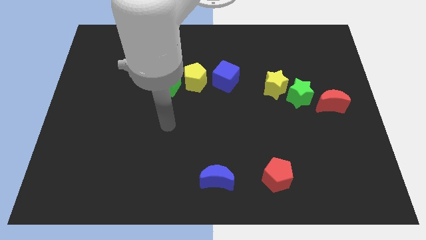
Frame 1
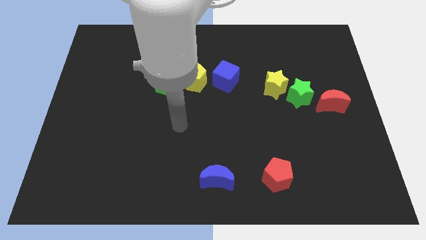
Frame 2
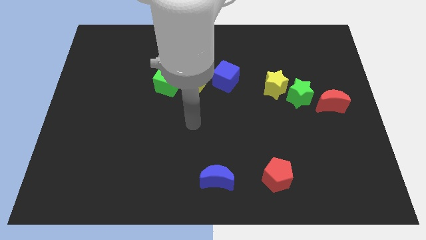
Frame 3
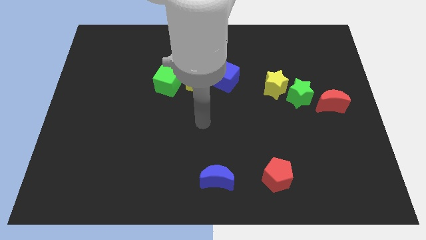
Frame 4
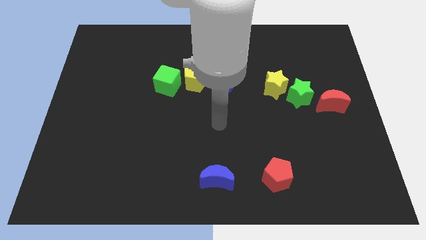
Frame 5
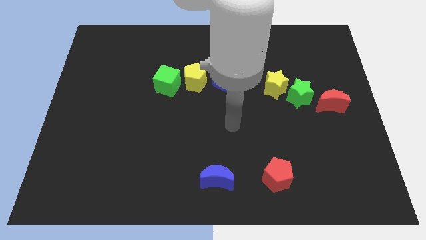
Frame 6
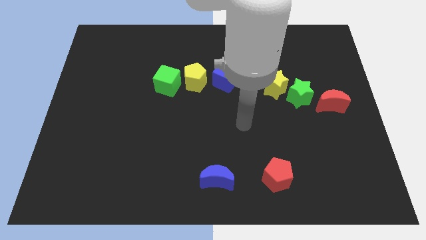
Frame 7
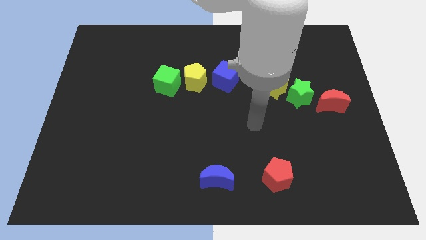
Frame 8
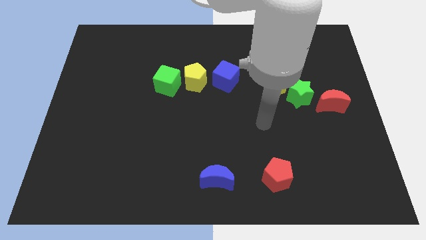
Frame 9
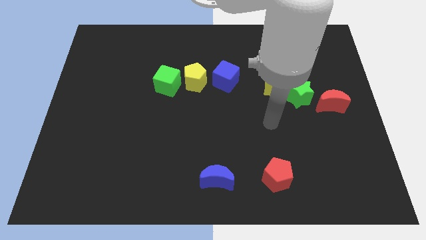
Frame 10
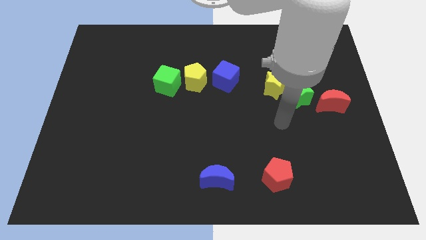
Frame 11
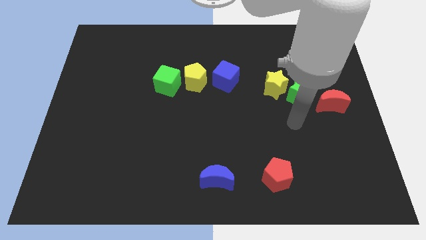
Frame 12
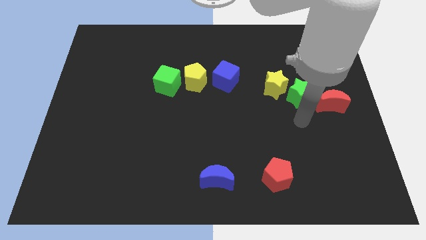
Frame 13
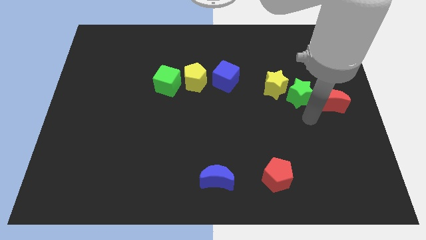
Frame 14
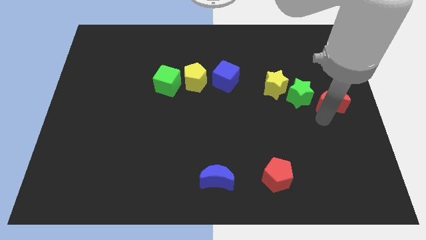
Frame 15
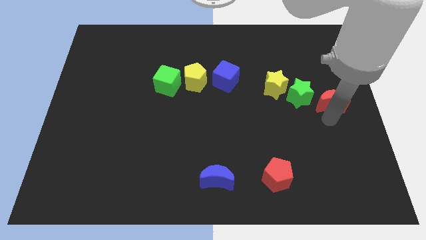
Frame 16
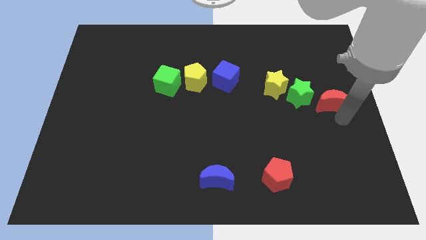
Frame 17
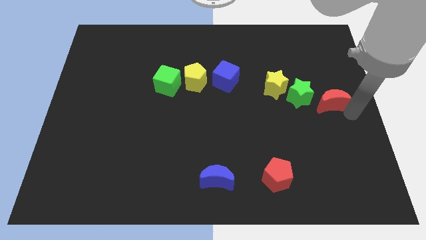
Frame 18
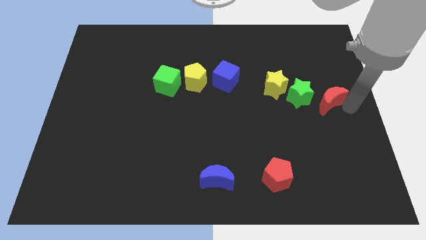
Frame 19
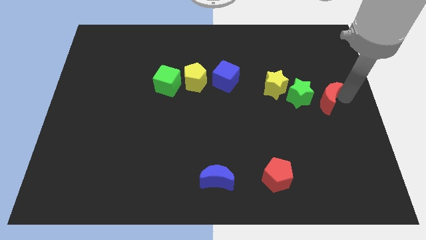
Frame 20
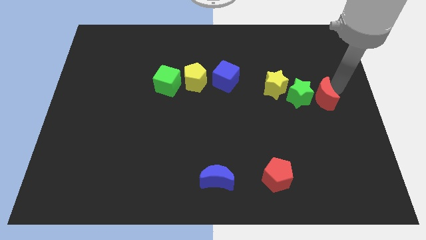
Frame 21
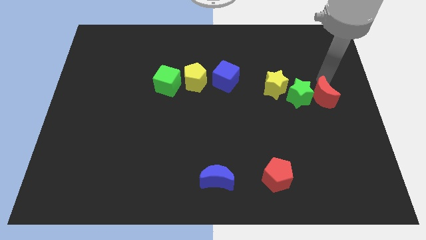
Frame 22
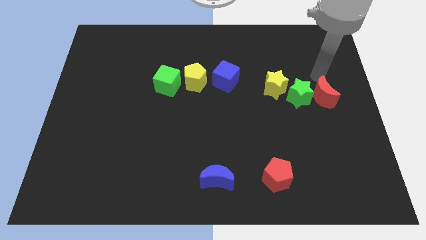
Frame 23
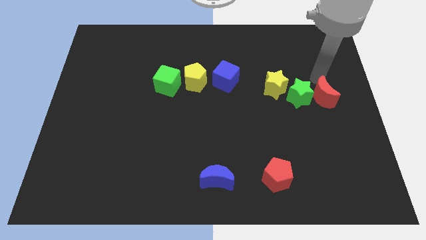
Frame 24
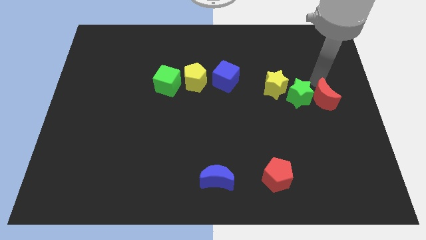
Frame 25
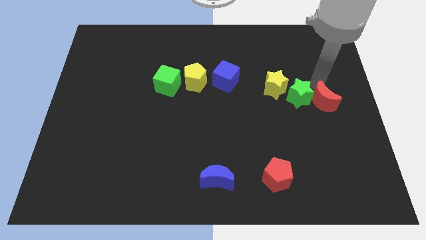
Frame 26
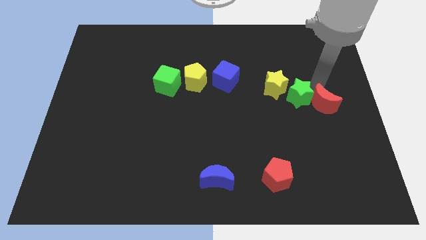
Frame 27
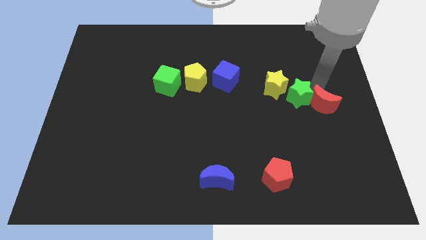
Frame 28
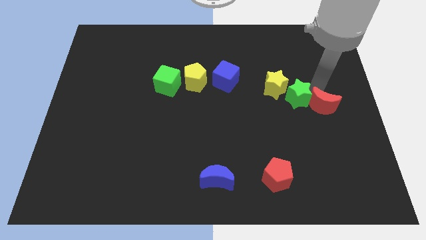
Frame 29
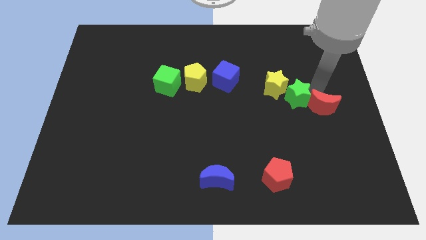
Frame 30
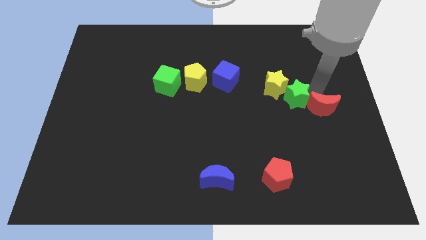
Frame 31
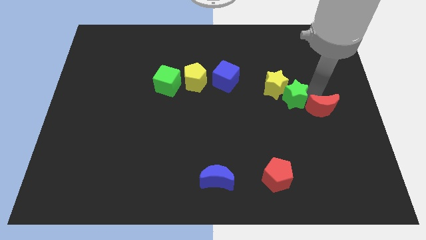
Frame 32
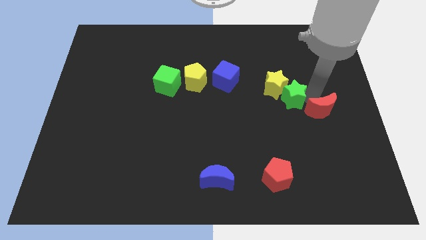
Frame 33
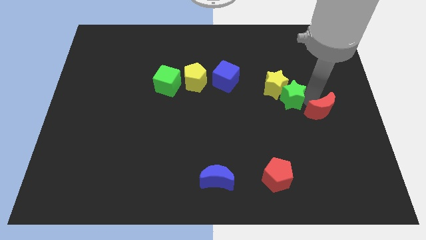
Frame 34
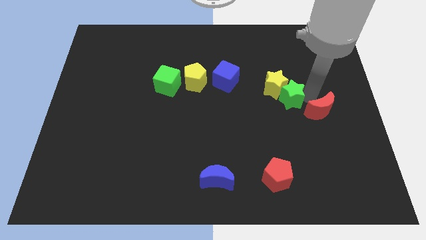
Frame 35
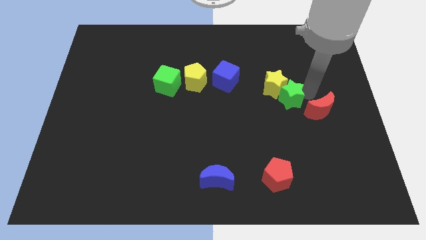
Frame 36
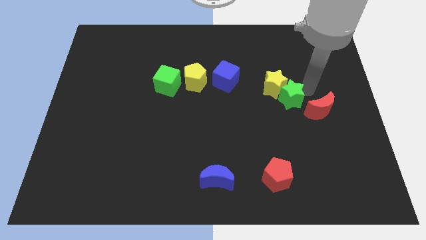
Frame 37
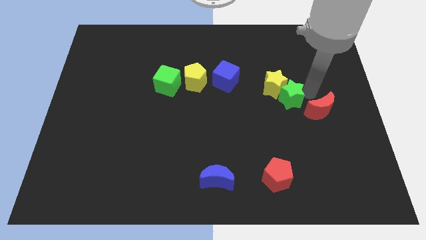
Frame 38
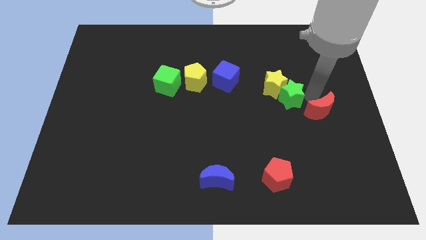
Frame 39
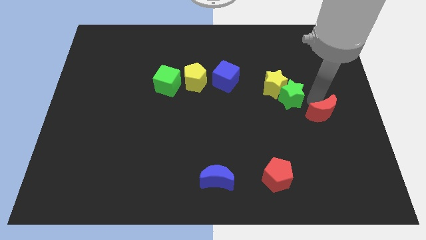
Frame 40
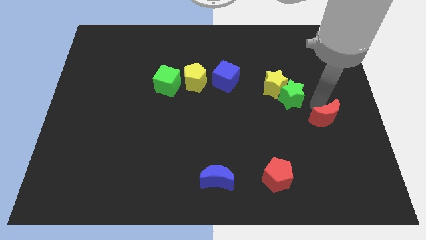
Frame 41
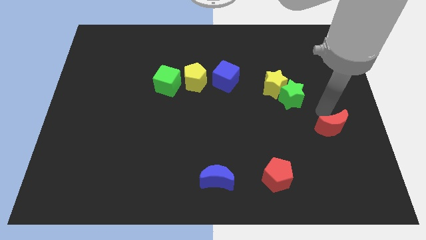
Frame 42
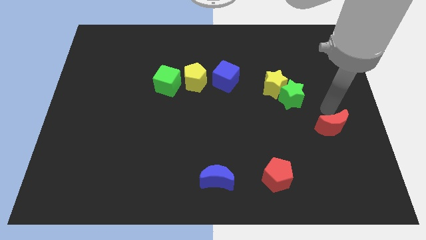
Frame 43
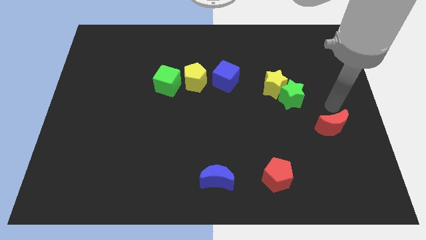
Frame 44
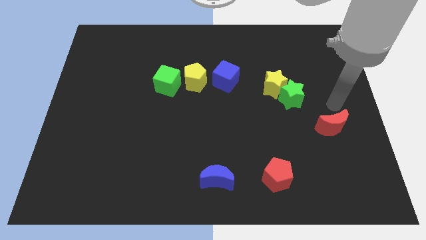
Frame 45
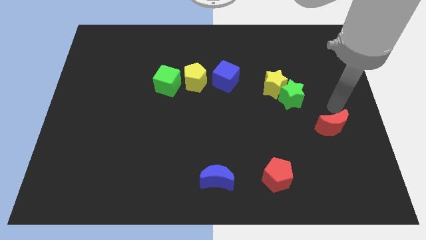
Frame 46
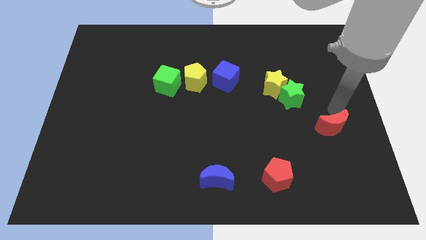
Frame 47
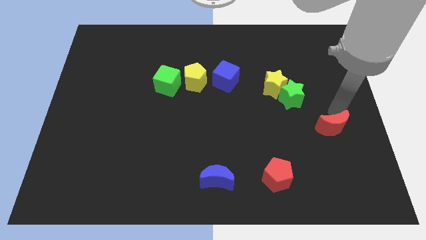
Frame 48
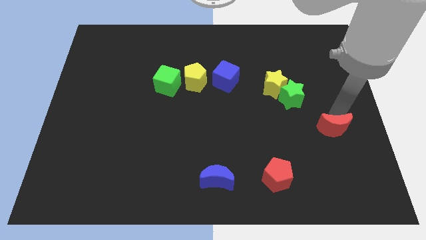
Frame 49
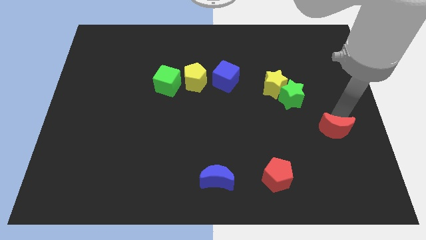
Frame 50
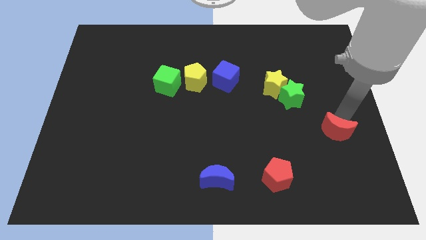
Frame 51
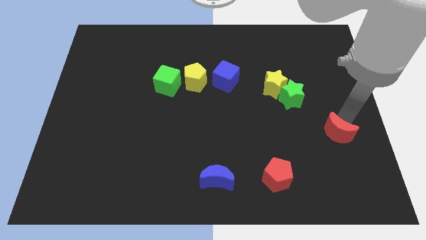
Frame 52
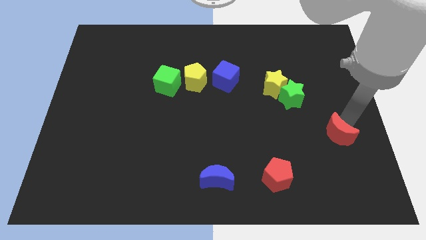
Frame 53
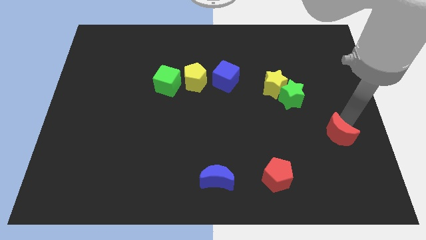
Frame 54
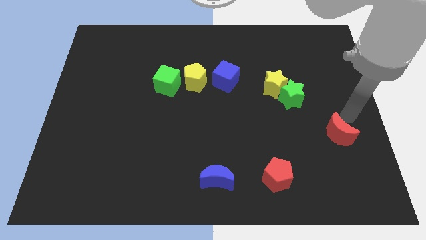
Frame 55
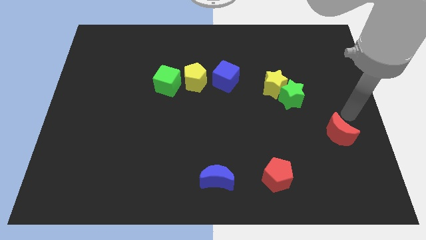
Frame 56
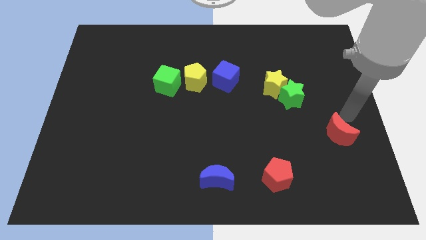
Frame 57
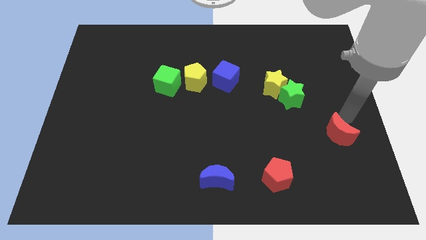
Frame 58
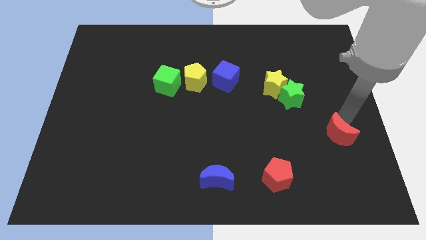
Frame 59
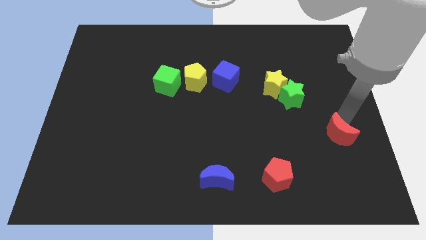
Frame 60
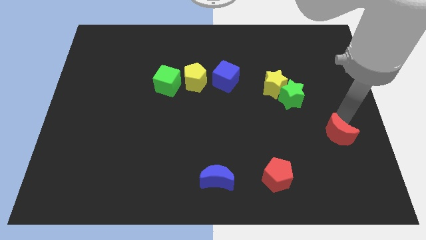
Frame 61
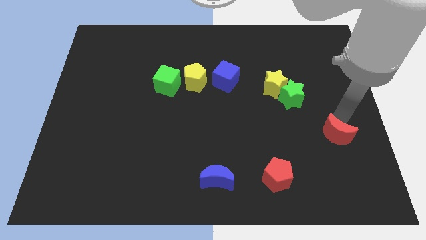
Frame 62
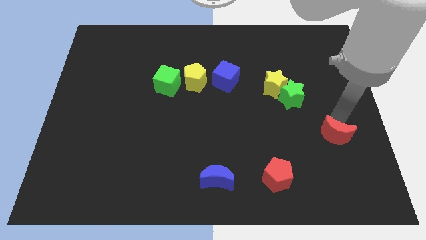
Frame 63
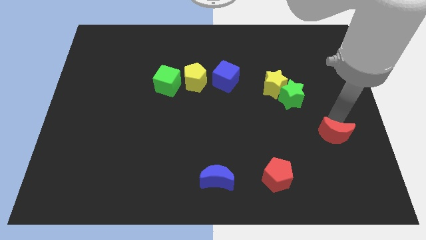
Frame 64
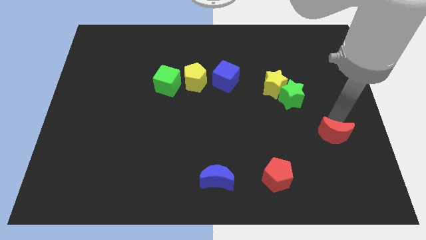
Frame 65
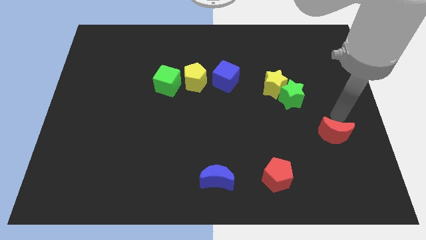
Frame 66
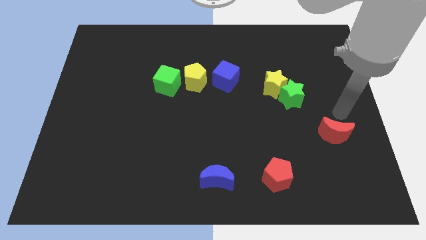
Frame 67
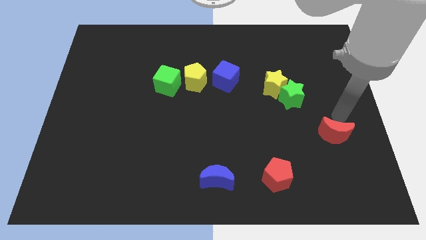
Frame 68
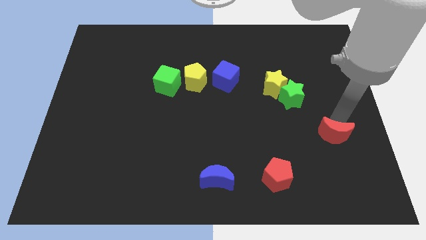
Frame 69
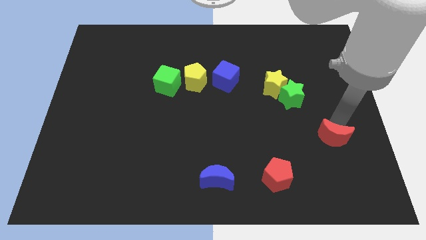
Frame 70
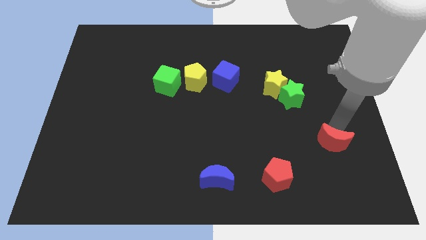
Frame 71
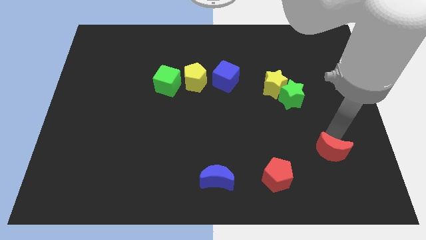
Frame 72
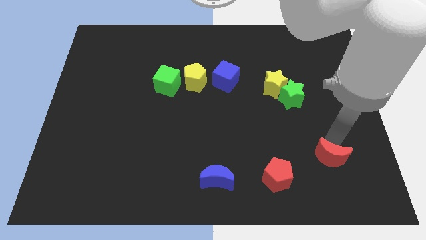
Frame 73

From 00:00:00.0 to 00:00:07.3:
push the red moon right of the red pentagon

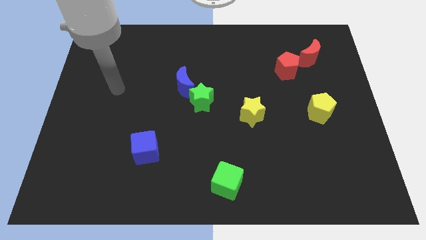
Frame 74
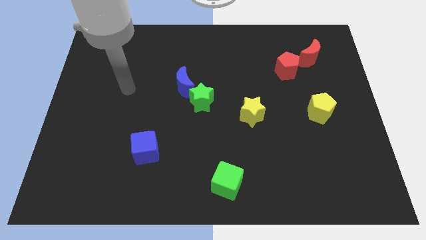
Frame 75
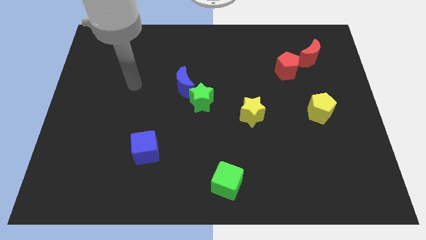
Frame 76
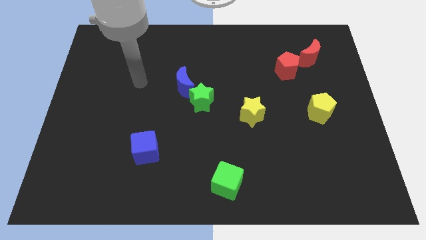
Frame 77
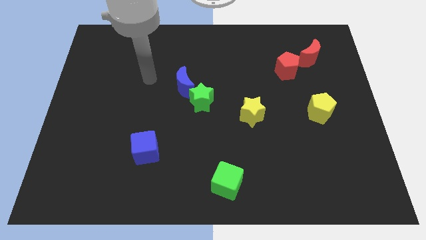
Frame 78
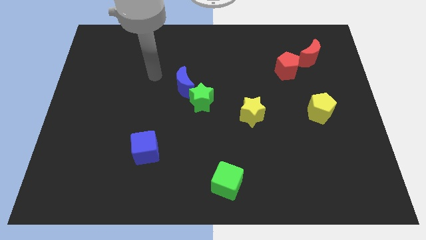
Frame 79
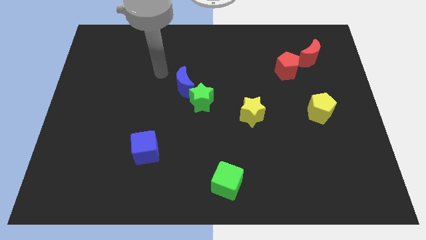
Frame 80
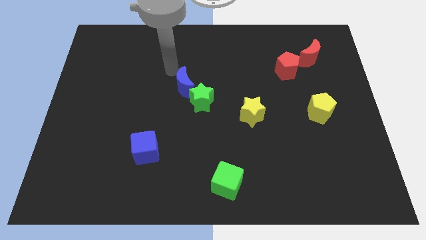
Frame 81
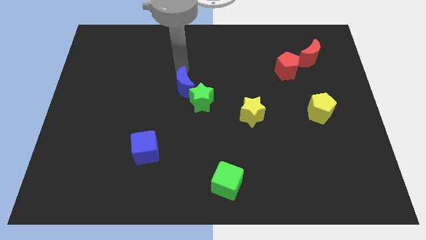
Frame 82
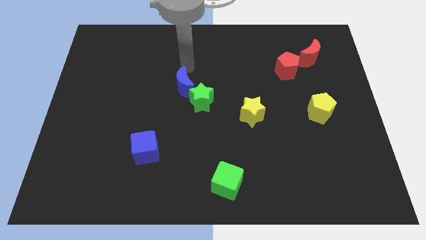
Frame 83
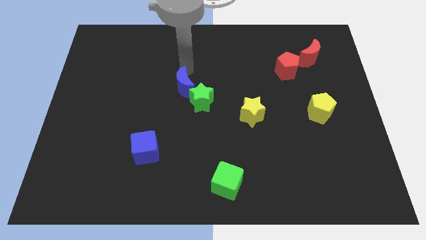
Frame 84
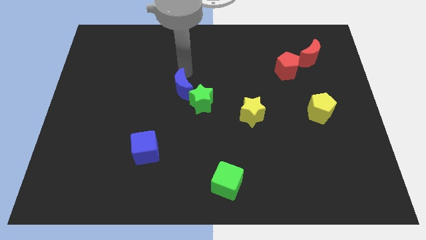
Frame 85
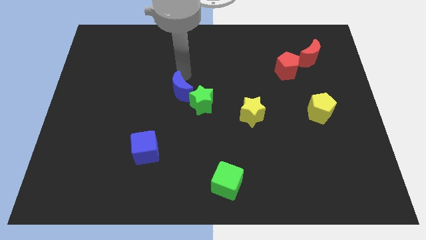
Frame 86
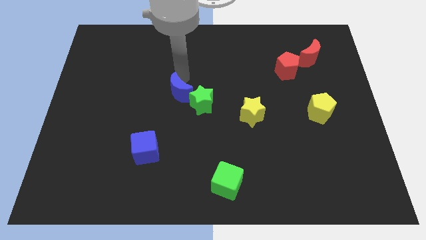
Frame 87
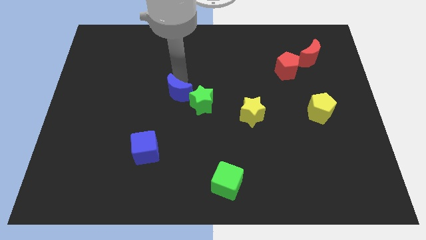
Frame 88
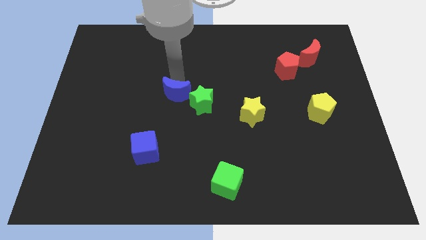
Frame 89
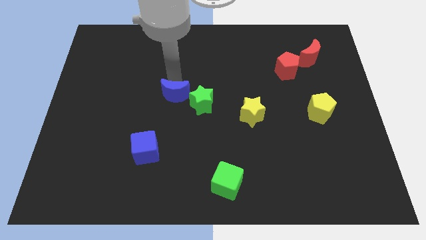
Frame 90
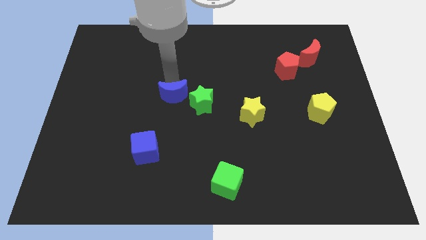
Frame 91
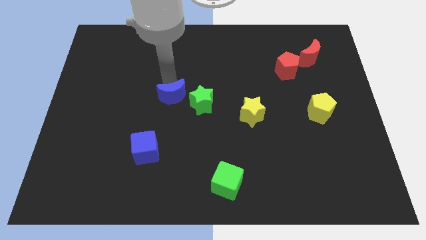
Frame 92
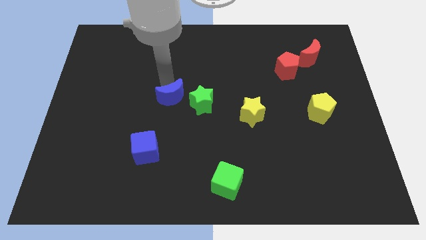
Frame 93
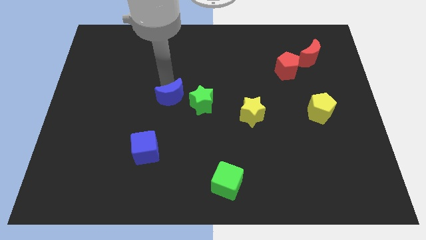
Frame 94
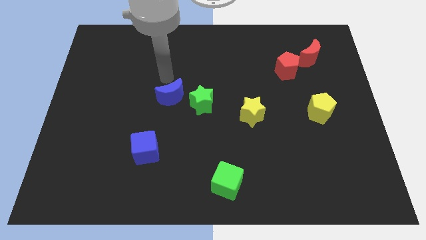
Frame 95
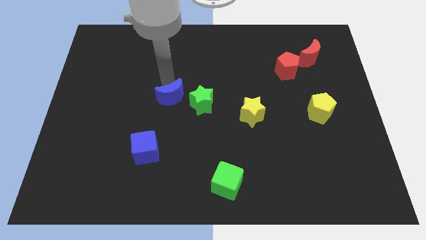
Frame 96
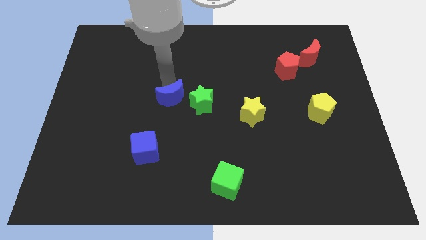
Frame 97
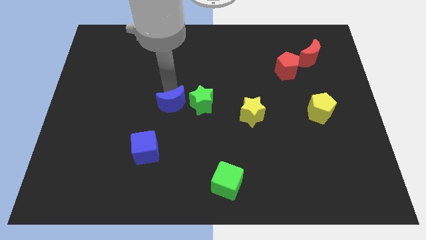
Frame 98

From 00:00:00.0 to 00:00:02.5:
move the blue moon to the bottom left side of the green star
